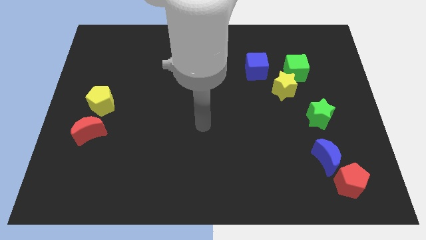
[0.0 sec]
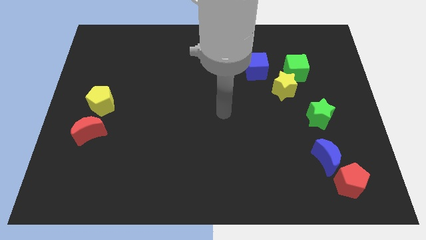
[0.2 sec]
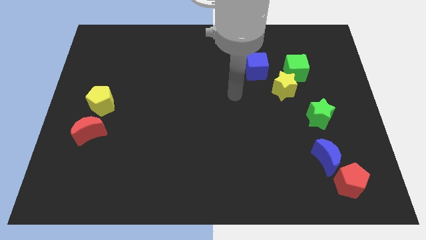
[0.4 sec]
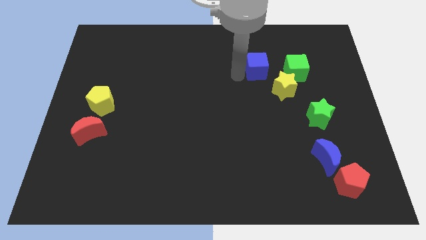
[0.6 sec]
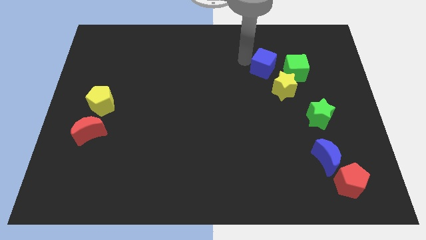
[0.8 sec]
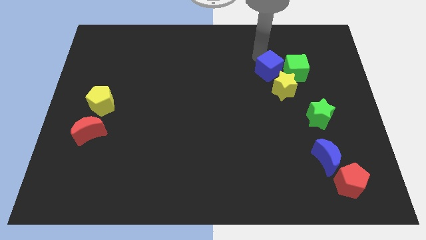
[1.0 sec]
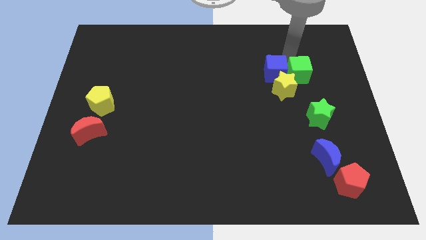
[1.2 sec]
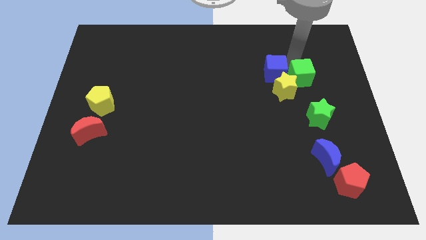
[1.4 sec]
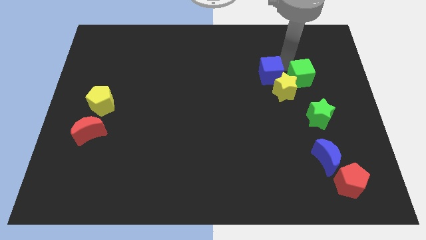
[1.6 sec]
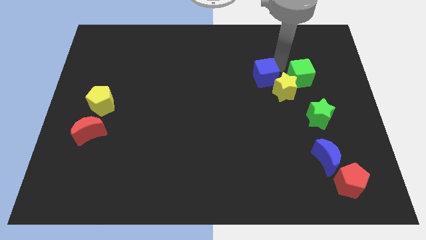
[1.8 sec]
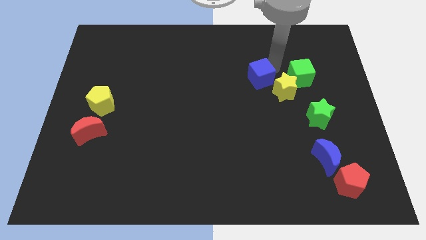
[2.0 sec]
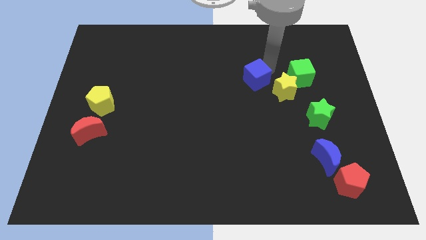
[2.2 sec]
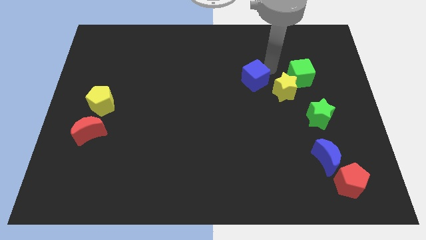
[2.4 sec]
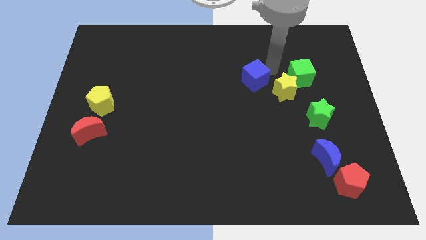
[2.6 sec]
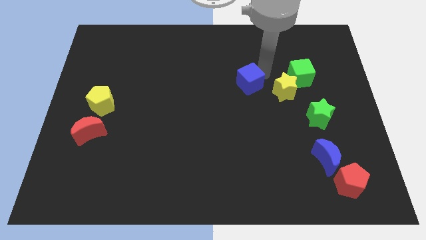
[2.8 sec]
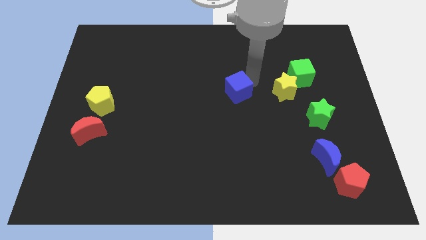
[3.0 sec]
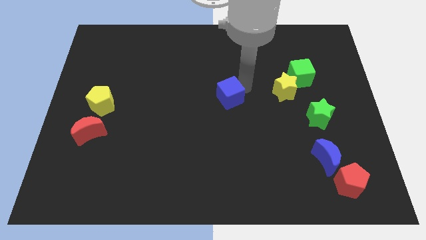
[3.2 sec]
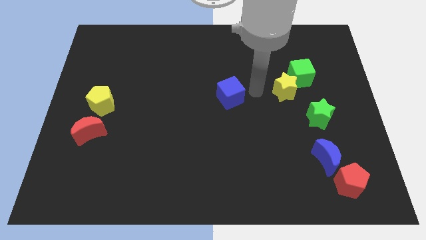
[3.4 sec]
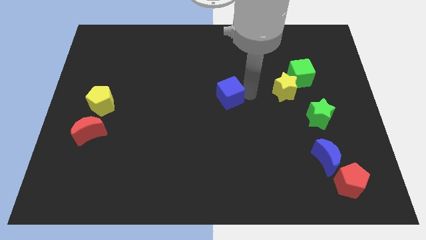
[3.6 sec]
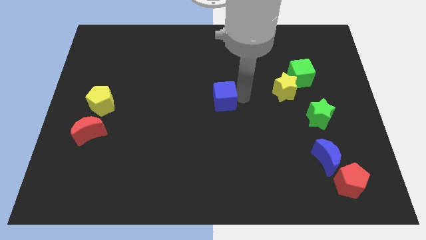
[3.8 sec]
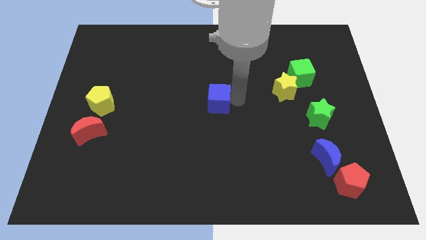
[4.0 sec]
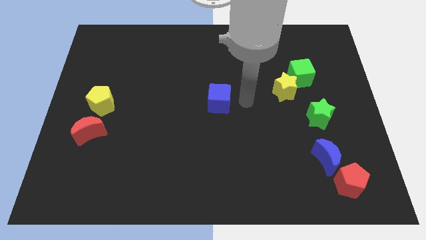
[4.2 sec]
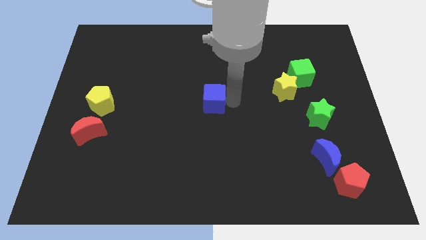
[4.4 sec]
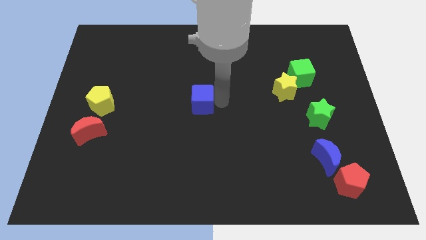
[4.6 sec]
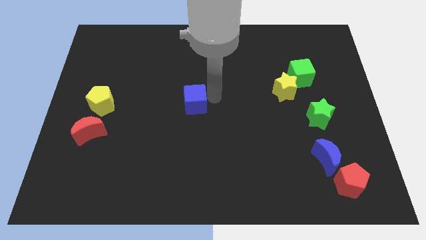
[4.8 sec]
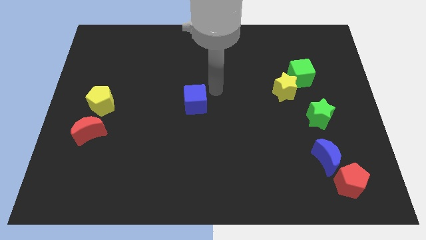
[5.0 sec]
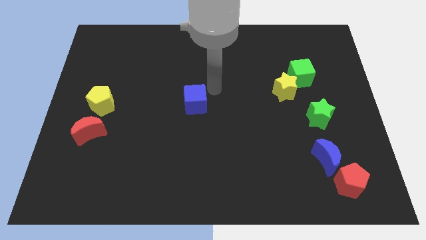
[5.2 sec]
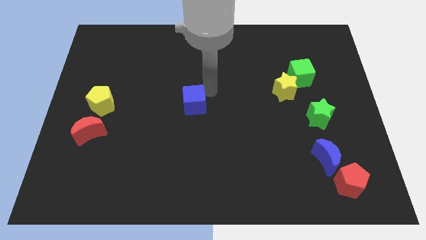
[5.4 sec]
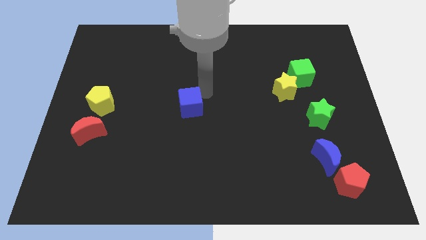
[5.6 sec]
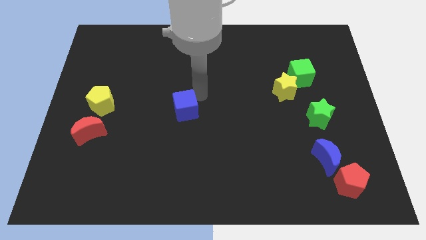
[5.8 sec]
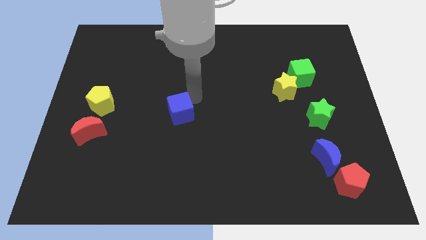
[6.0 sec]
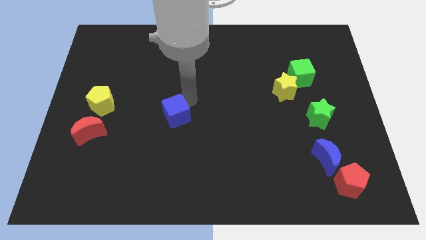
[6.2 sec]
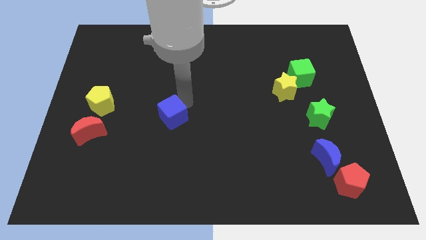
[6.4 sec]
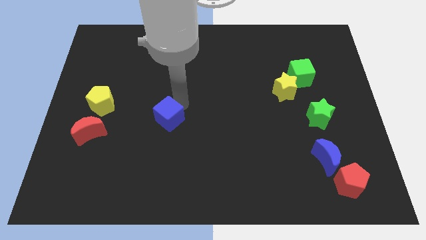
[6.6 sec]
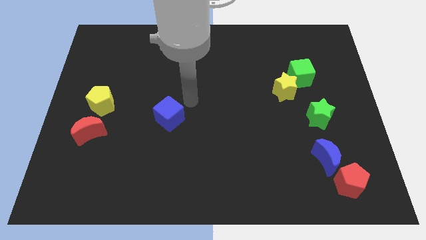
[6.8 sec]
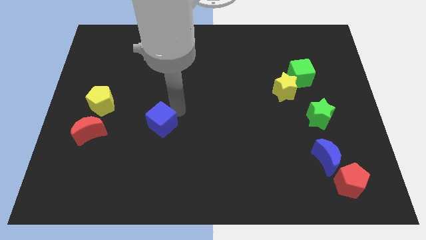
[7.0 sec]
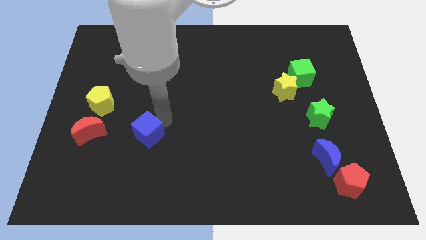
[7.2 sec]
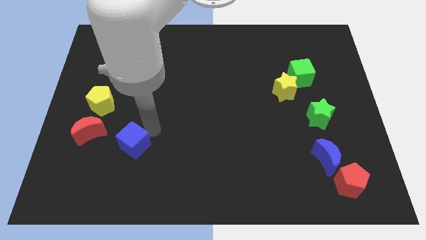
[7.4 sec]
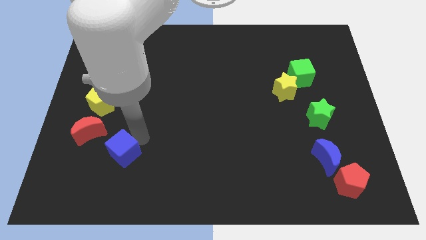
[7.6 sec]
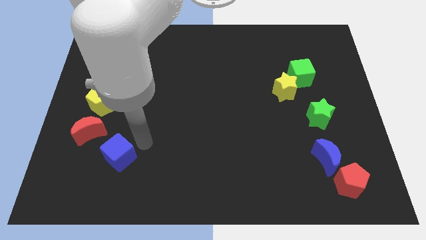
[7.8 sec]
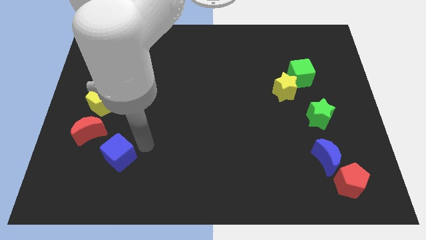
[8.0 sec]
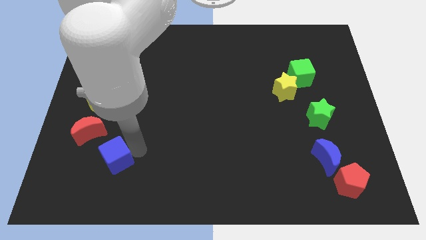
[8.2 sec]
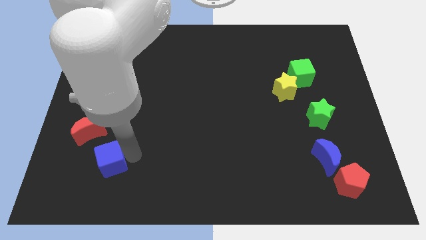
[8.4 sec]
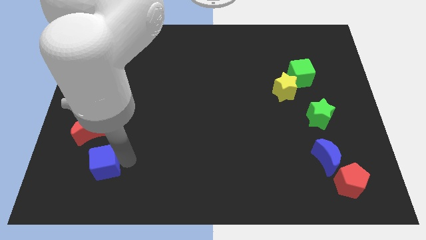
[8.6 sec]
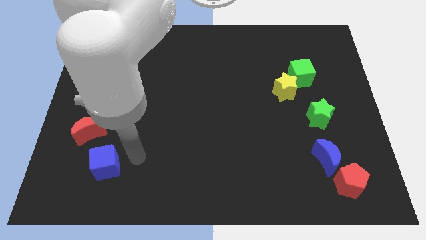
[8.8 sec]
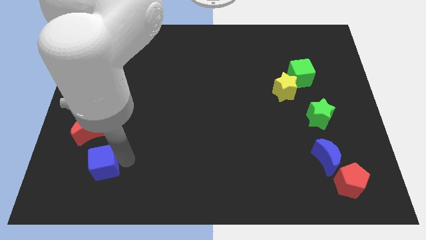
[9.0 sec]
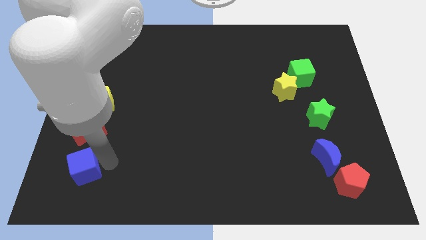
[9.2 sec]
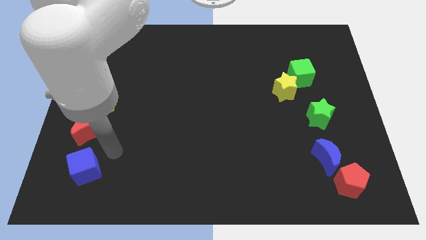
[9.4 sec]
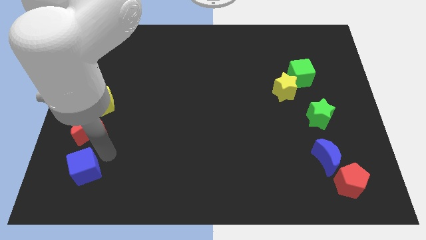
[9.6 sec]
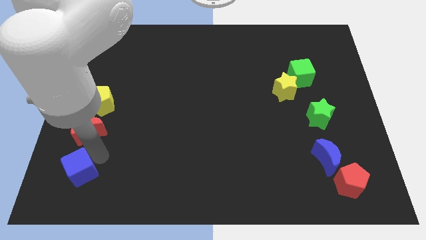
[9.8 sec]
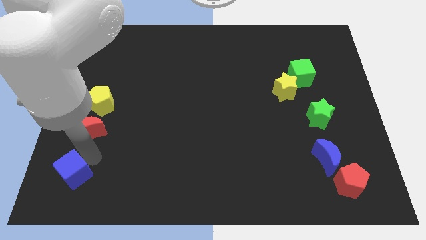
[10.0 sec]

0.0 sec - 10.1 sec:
slide the blue cube to the bottom left corner

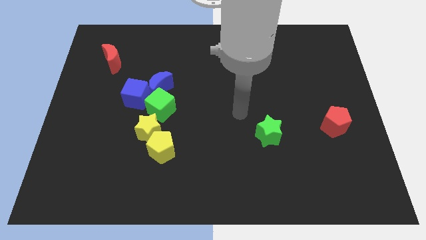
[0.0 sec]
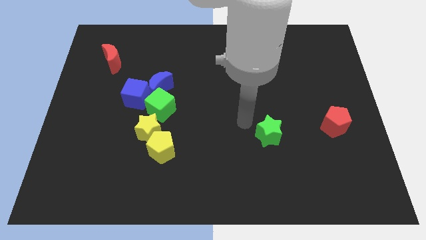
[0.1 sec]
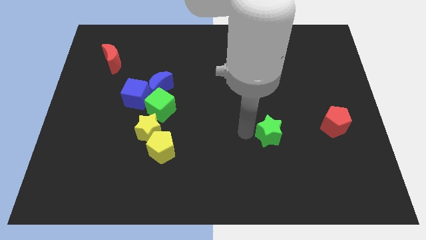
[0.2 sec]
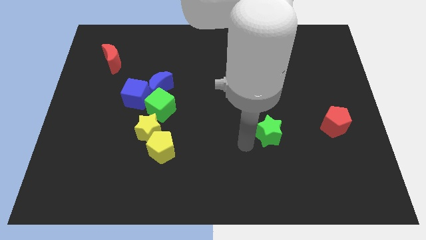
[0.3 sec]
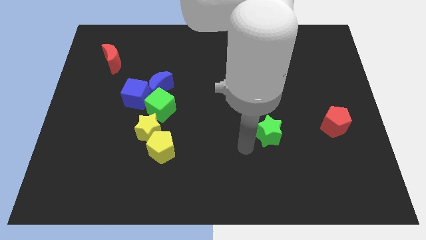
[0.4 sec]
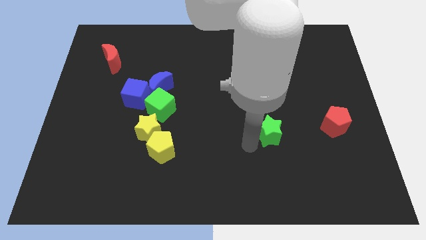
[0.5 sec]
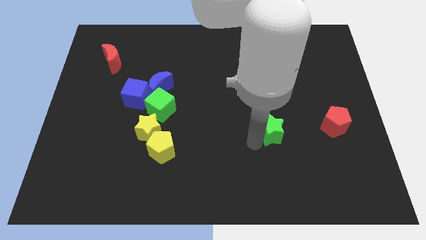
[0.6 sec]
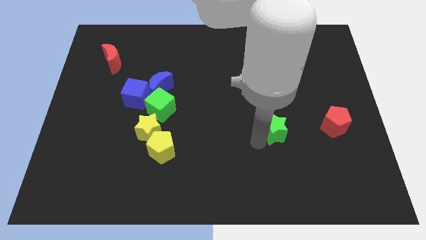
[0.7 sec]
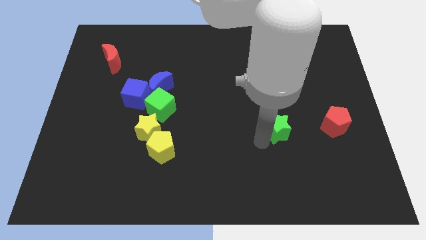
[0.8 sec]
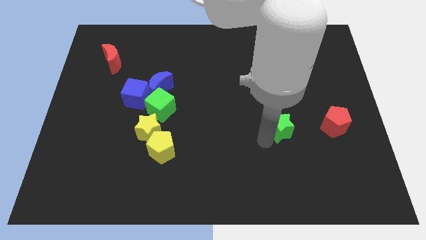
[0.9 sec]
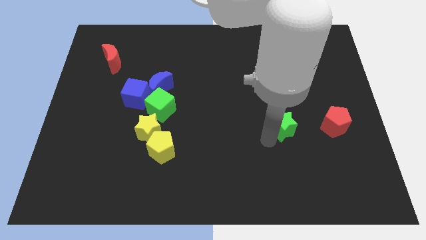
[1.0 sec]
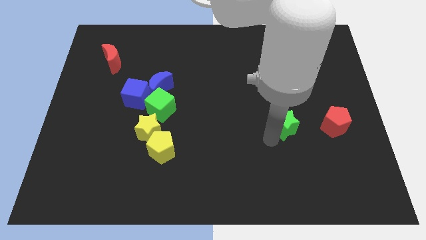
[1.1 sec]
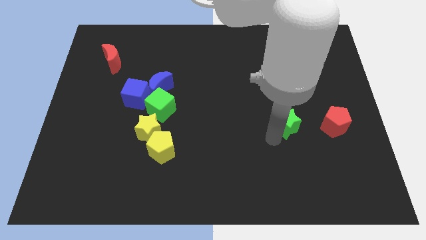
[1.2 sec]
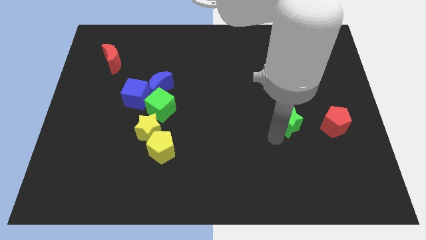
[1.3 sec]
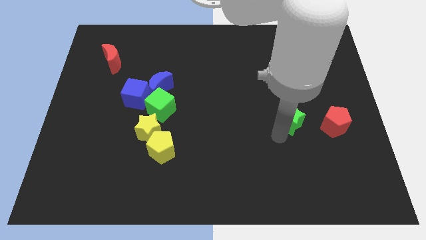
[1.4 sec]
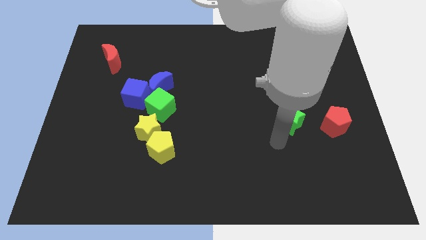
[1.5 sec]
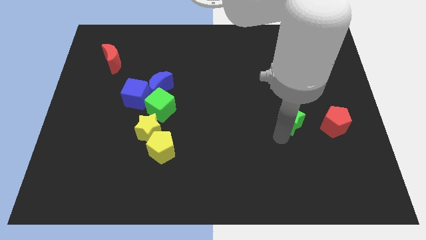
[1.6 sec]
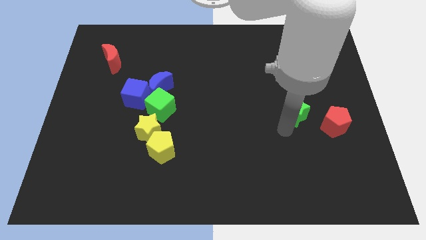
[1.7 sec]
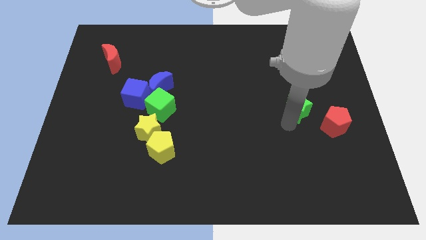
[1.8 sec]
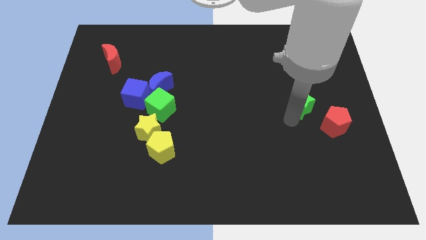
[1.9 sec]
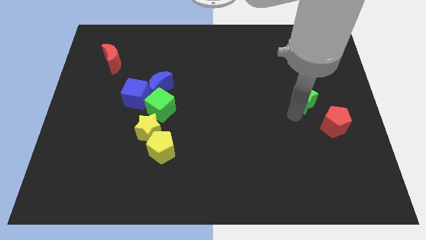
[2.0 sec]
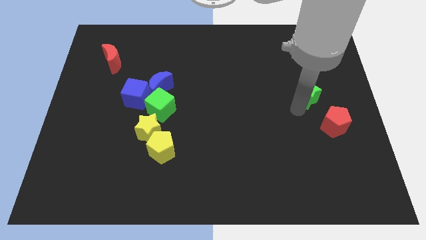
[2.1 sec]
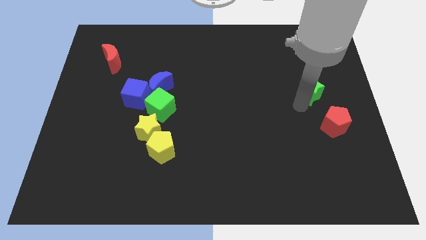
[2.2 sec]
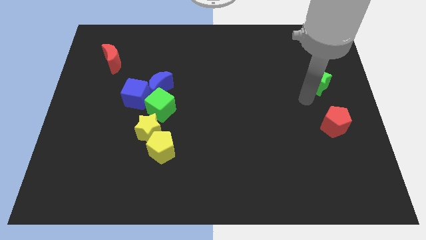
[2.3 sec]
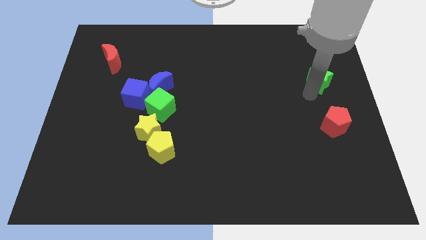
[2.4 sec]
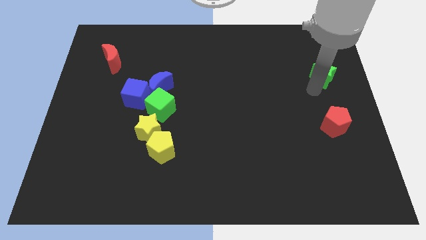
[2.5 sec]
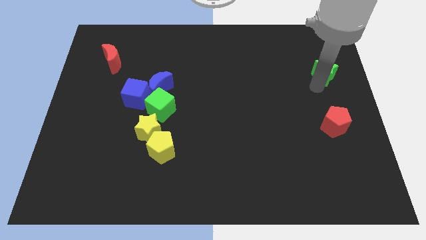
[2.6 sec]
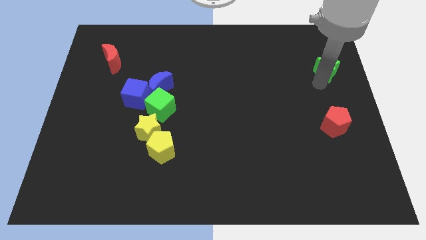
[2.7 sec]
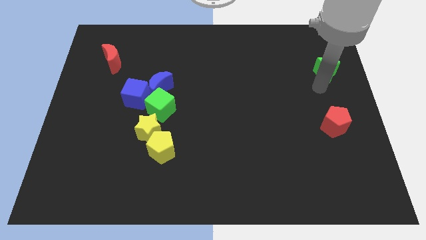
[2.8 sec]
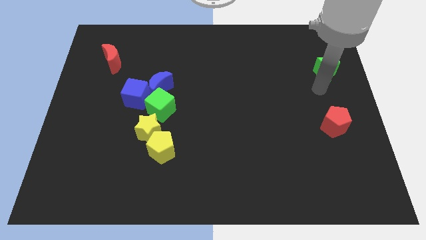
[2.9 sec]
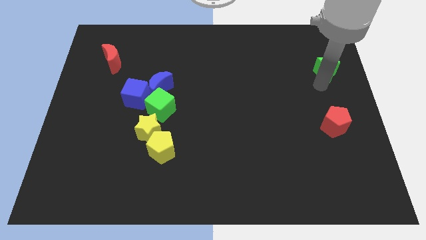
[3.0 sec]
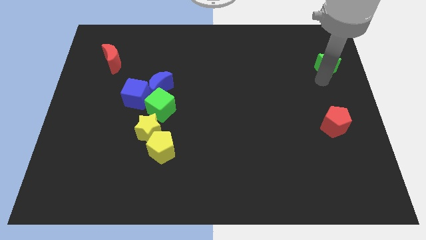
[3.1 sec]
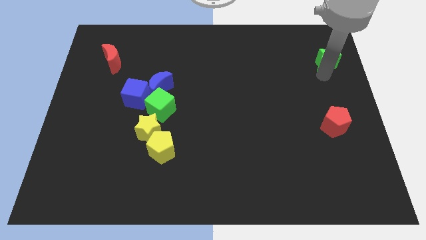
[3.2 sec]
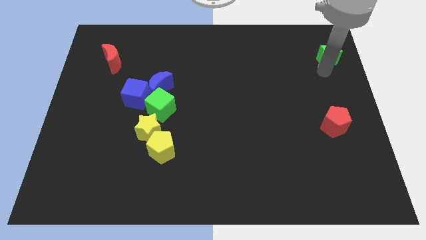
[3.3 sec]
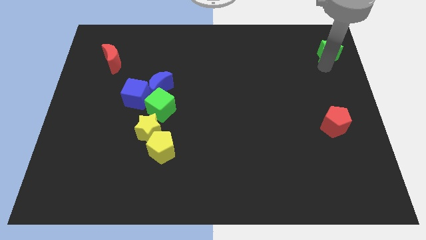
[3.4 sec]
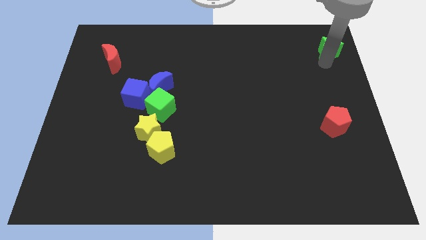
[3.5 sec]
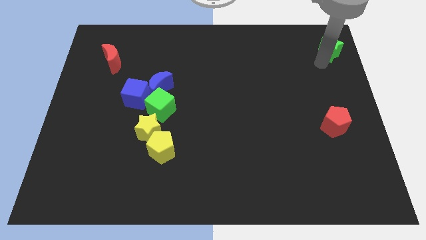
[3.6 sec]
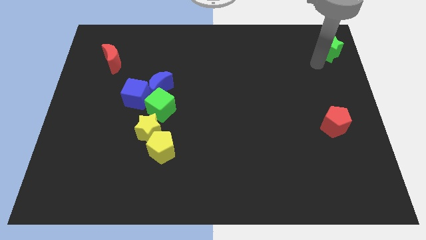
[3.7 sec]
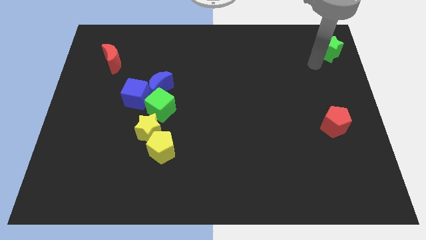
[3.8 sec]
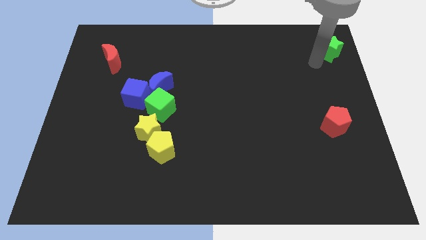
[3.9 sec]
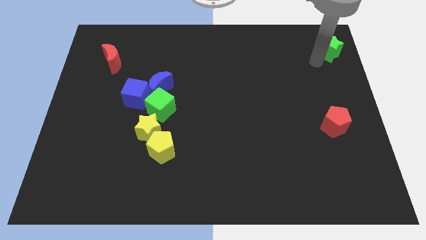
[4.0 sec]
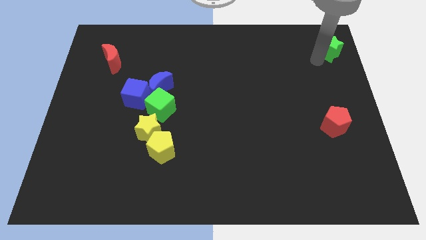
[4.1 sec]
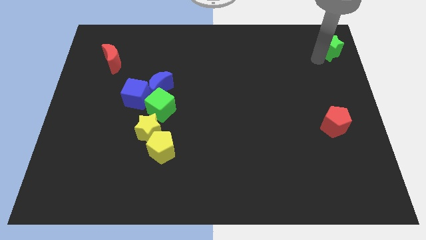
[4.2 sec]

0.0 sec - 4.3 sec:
slide the green star to the top right
